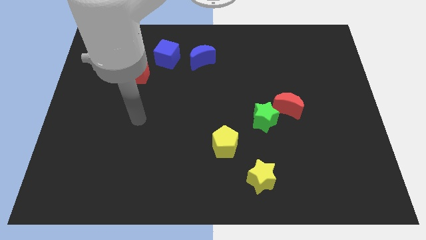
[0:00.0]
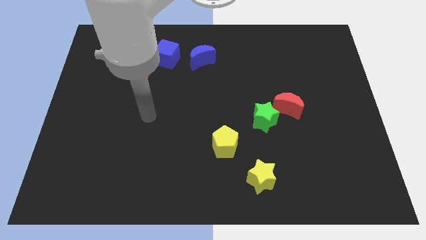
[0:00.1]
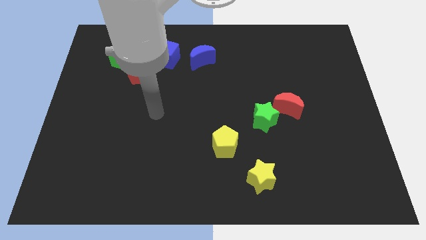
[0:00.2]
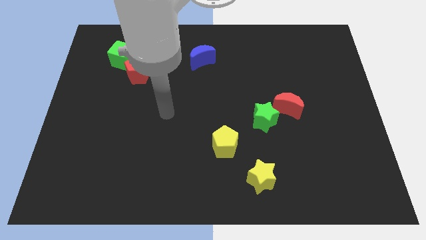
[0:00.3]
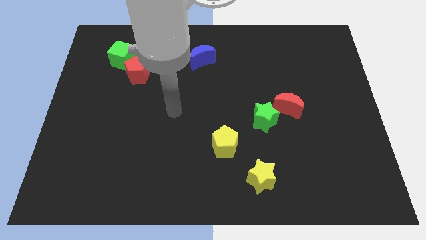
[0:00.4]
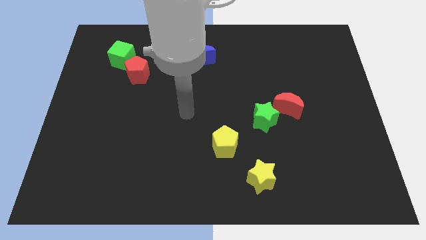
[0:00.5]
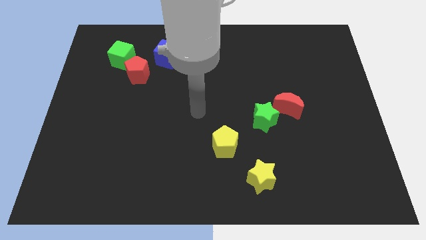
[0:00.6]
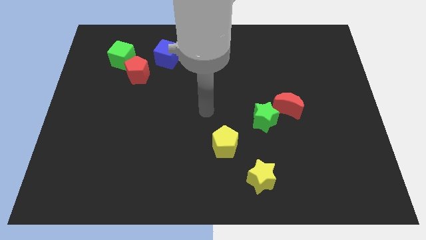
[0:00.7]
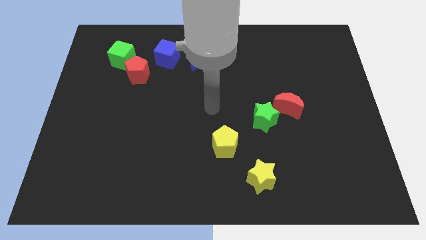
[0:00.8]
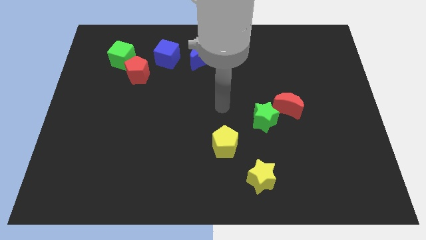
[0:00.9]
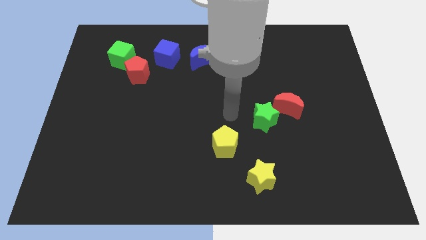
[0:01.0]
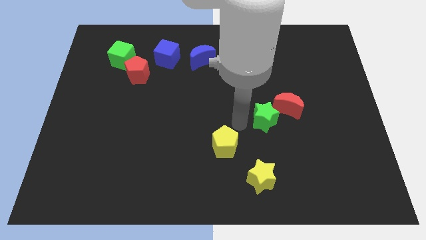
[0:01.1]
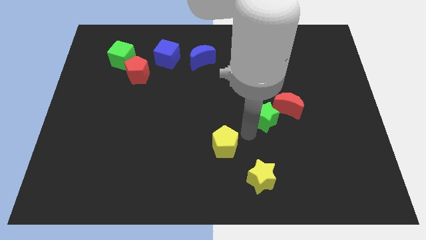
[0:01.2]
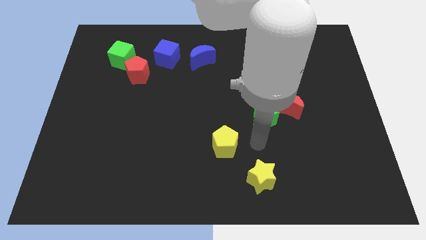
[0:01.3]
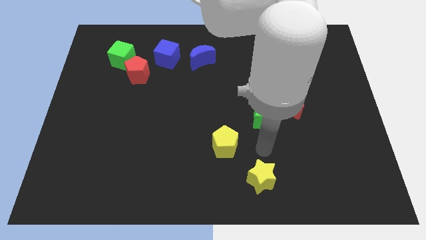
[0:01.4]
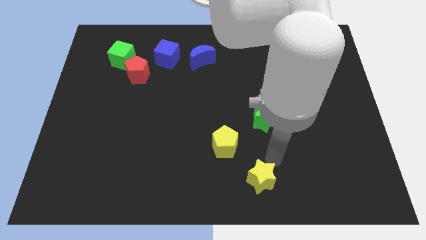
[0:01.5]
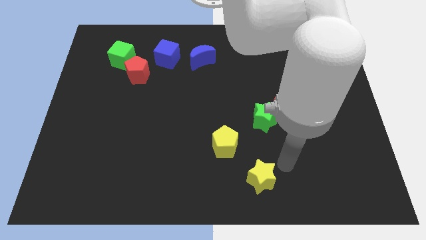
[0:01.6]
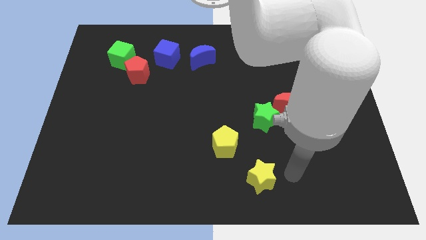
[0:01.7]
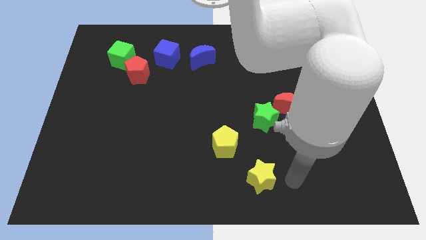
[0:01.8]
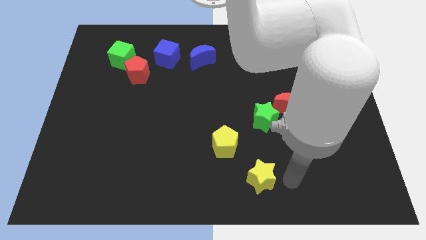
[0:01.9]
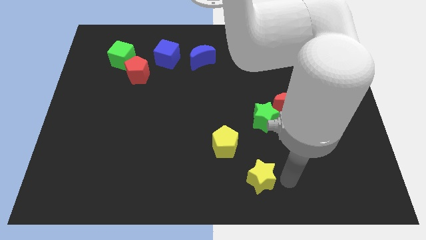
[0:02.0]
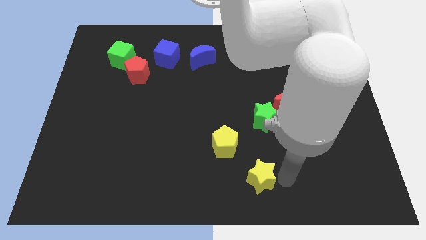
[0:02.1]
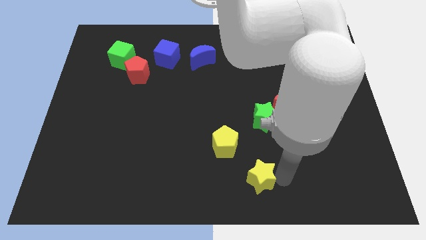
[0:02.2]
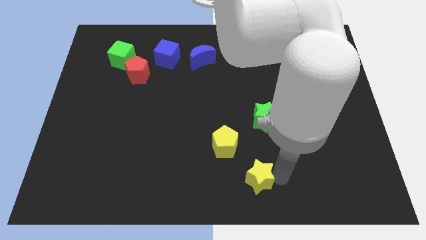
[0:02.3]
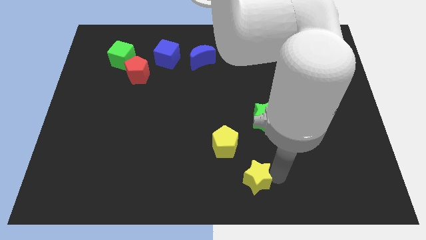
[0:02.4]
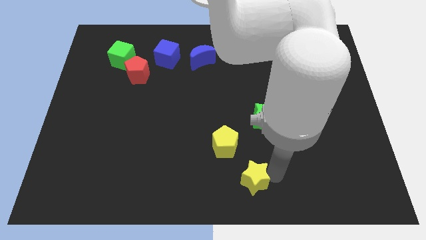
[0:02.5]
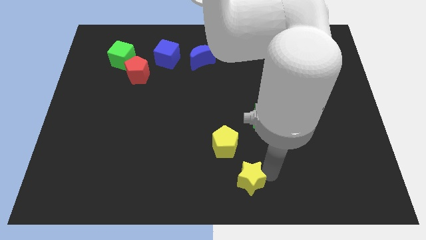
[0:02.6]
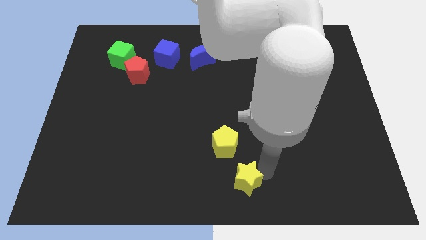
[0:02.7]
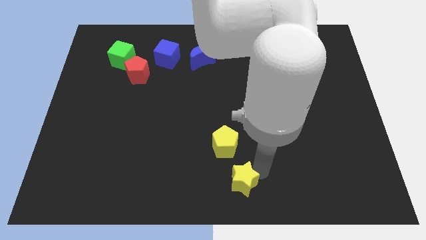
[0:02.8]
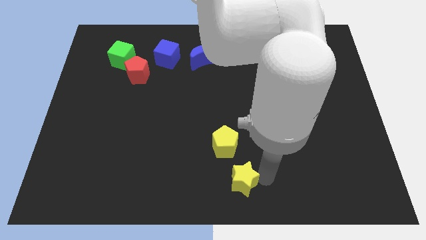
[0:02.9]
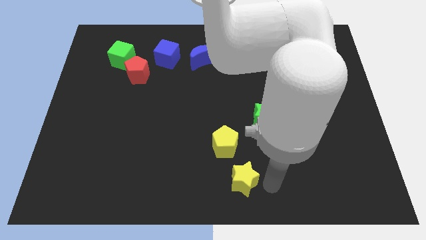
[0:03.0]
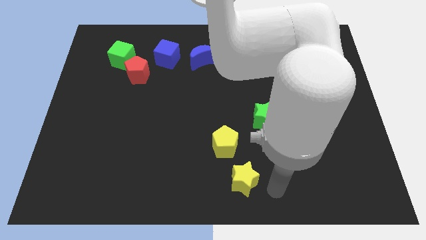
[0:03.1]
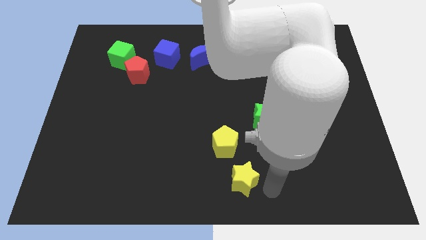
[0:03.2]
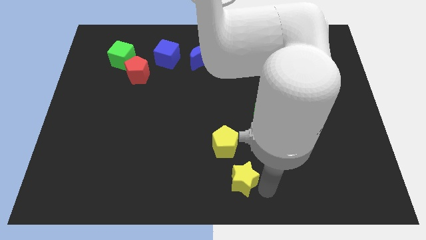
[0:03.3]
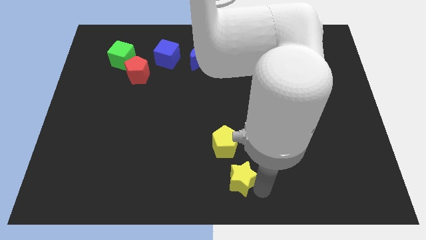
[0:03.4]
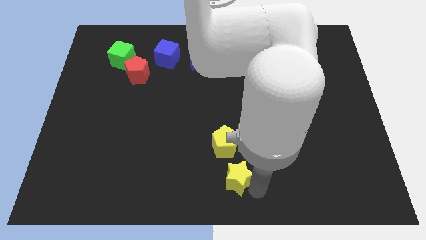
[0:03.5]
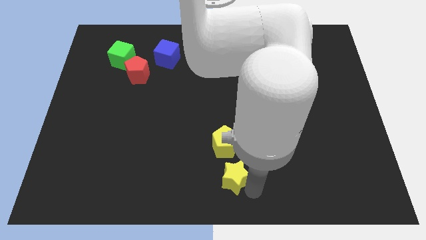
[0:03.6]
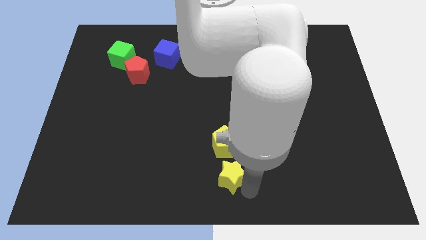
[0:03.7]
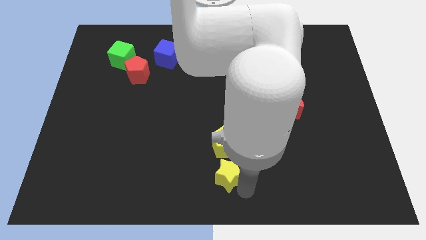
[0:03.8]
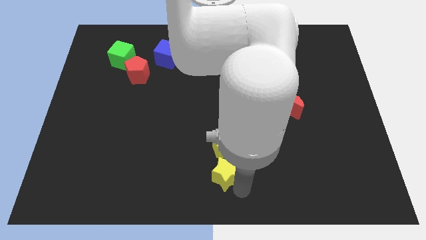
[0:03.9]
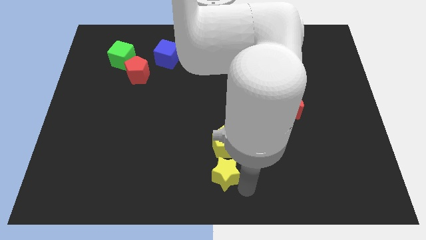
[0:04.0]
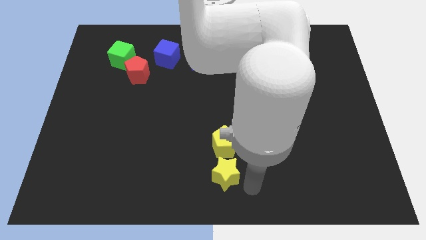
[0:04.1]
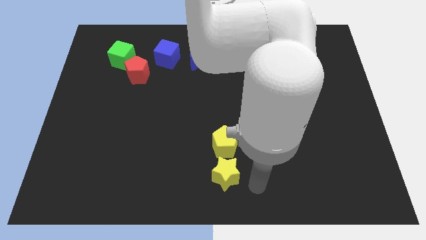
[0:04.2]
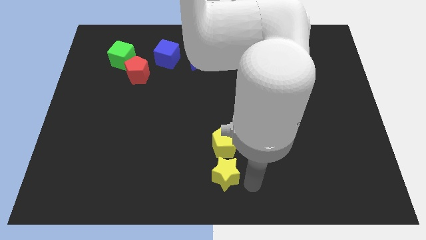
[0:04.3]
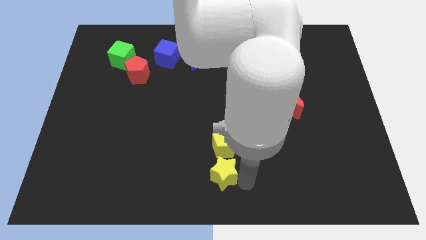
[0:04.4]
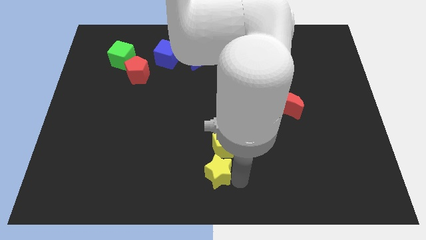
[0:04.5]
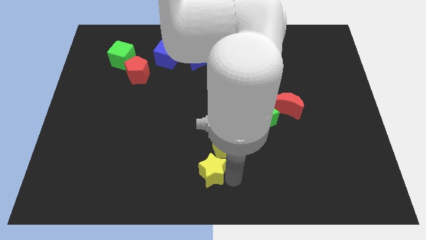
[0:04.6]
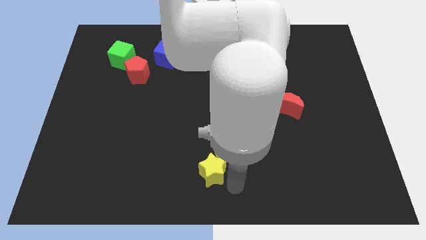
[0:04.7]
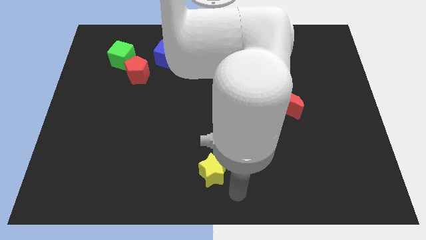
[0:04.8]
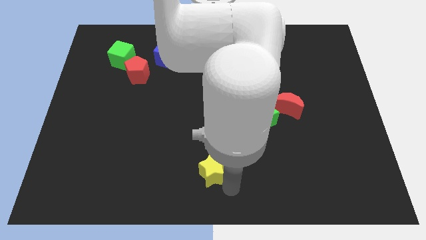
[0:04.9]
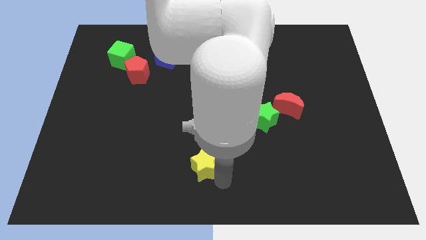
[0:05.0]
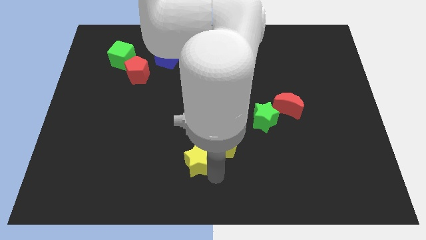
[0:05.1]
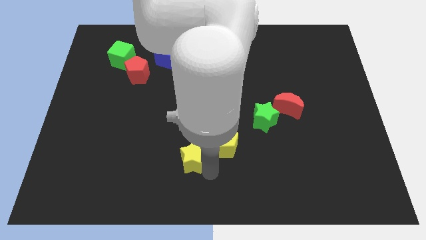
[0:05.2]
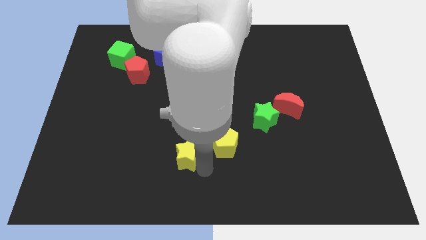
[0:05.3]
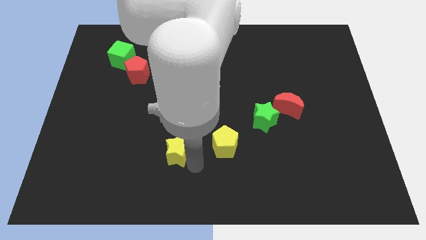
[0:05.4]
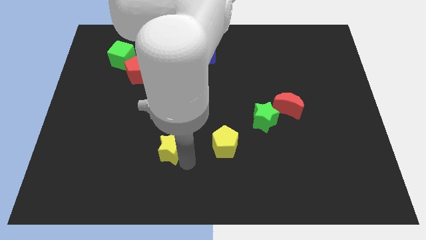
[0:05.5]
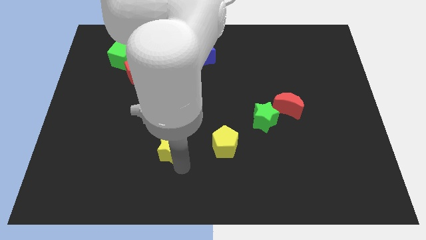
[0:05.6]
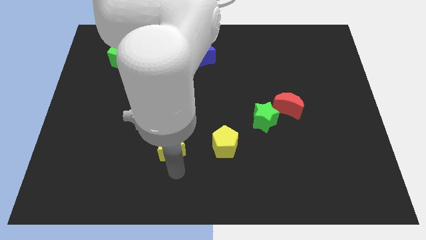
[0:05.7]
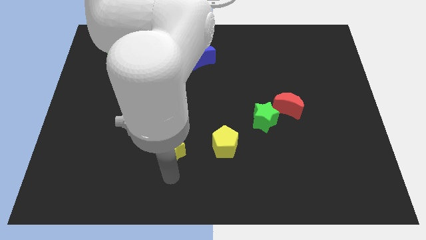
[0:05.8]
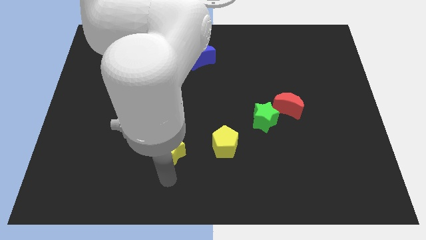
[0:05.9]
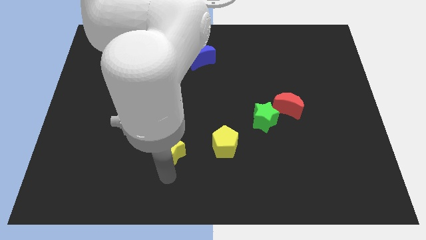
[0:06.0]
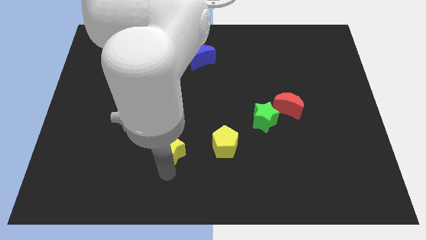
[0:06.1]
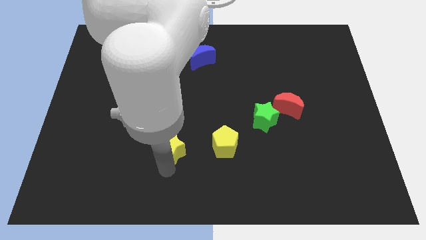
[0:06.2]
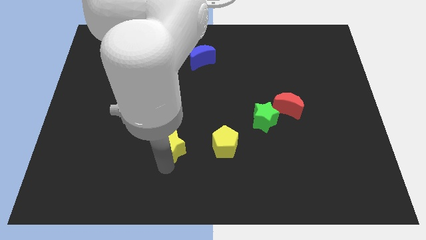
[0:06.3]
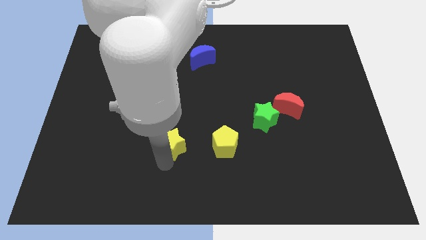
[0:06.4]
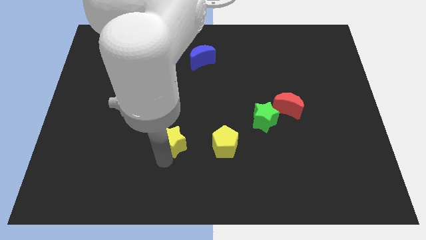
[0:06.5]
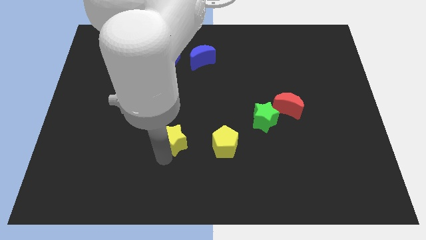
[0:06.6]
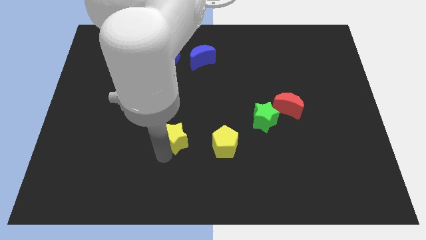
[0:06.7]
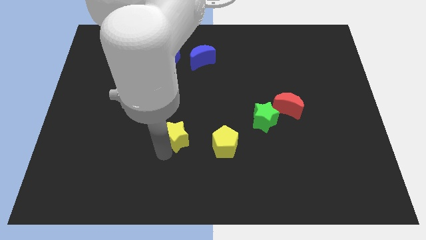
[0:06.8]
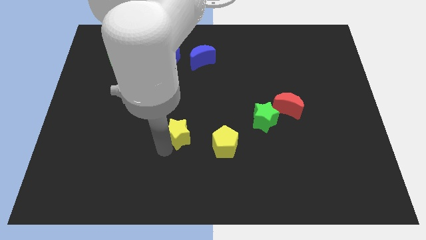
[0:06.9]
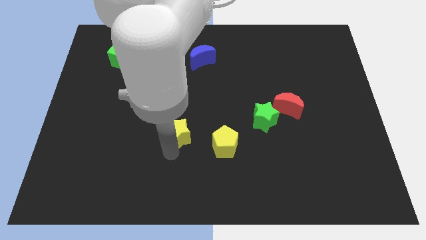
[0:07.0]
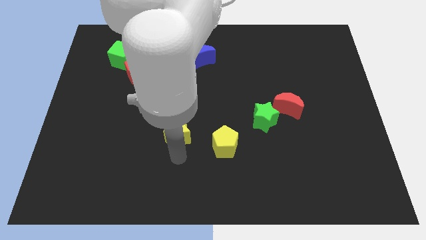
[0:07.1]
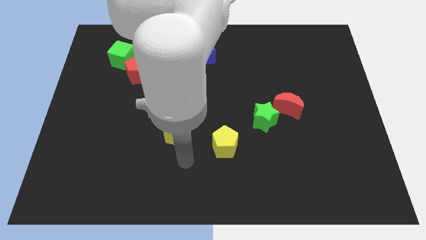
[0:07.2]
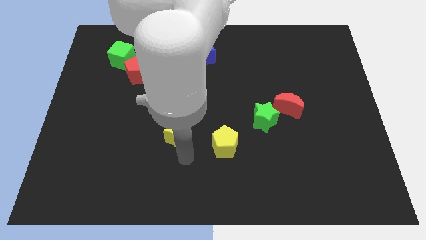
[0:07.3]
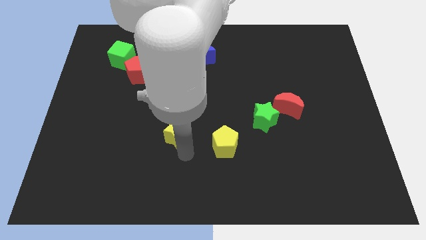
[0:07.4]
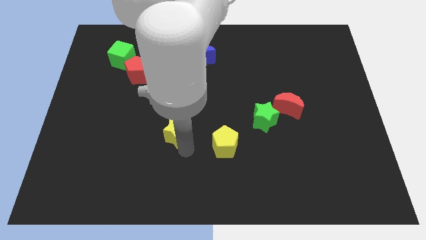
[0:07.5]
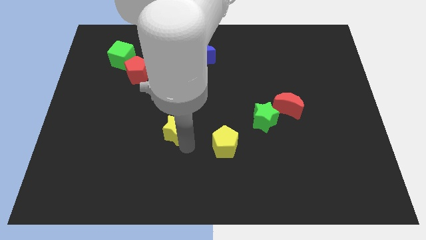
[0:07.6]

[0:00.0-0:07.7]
move the yellow star up and left

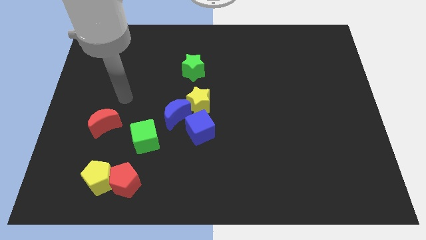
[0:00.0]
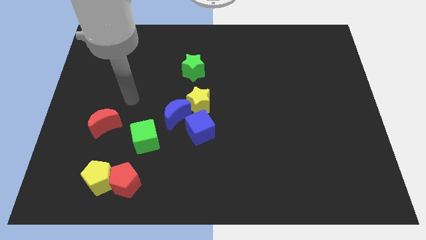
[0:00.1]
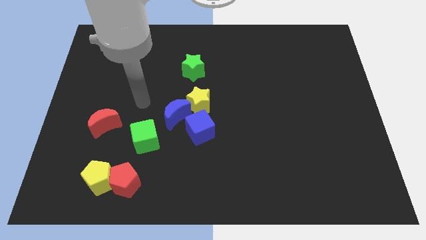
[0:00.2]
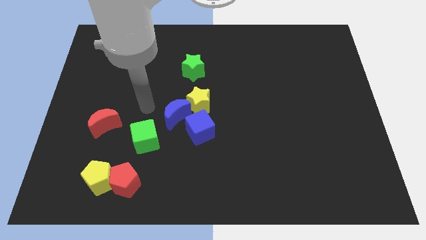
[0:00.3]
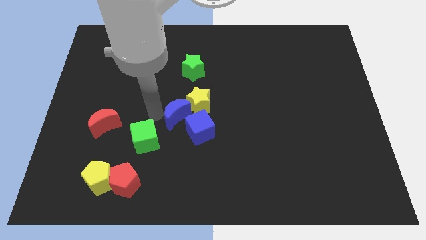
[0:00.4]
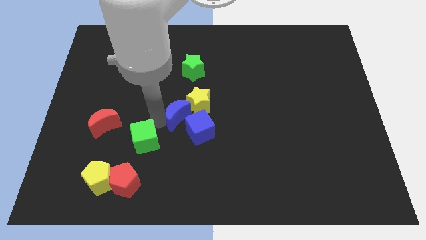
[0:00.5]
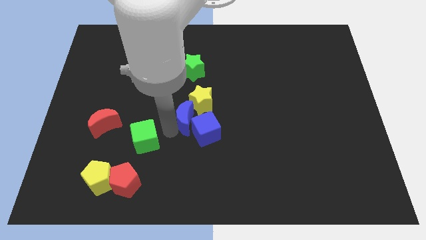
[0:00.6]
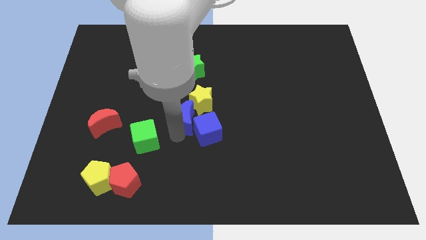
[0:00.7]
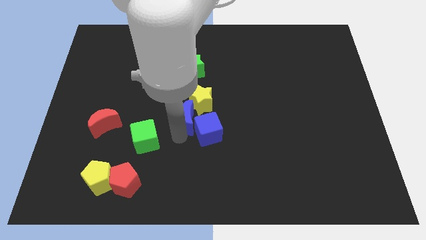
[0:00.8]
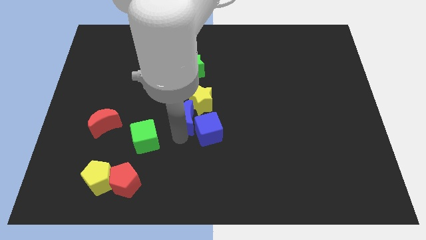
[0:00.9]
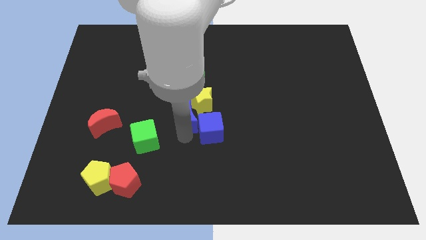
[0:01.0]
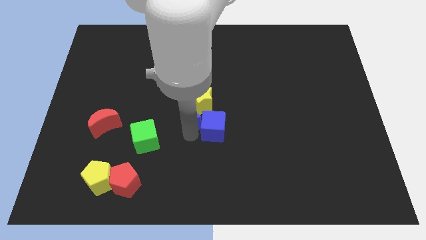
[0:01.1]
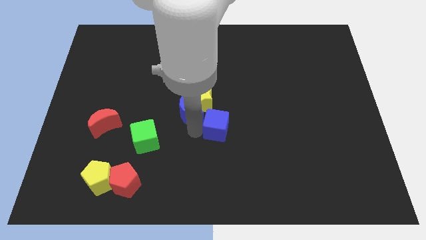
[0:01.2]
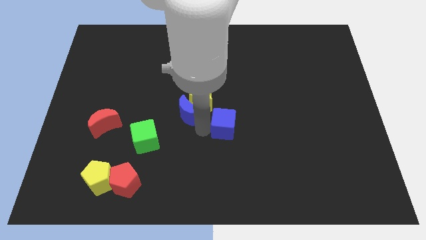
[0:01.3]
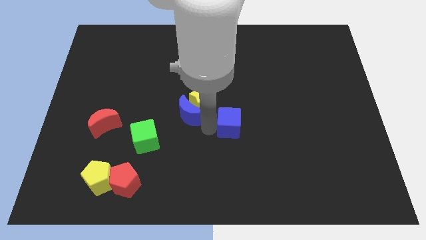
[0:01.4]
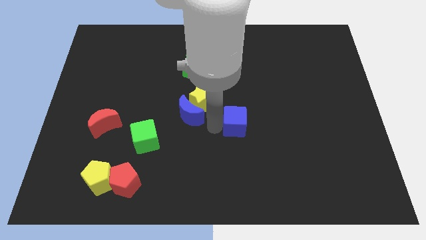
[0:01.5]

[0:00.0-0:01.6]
push the blue cube somewhat to the right
